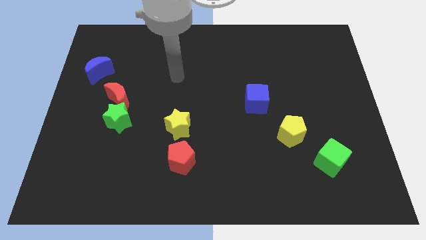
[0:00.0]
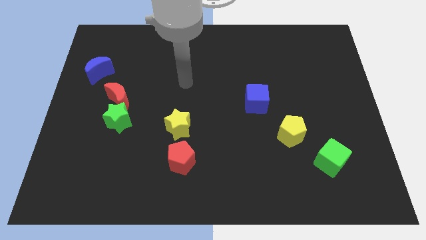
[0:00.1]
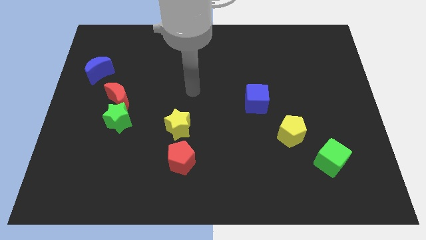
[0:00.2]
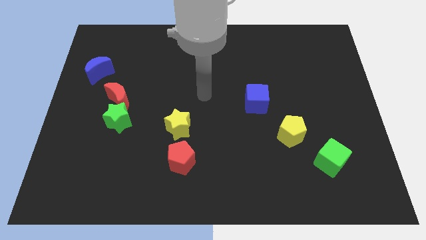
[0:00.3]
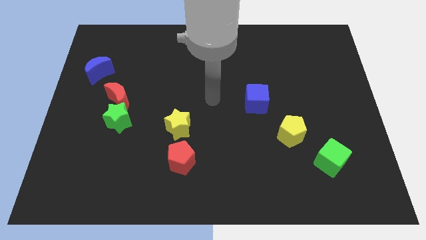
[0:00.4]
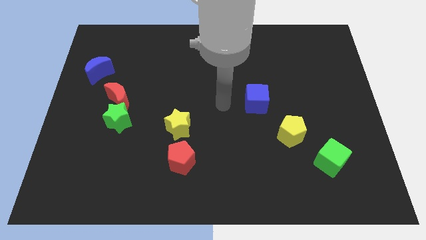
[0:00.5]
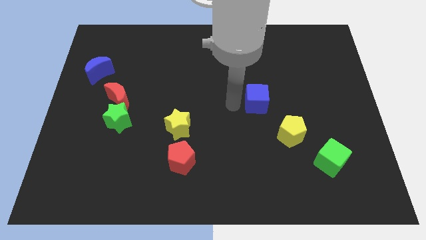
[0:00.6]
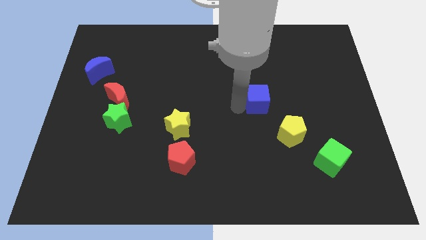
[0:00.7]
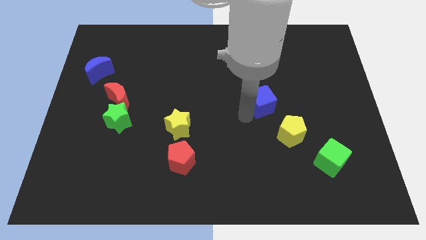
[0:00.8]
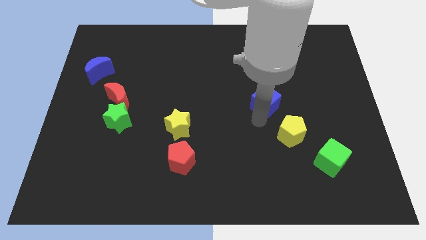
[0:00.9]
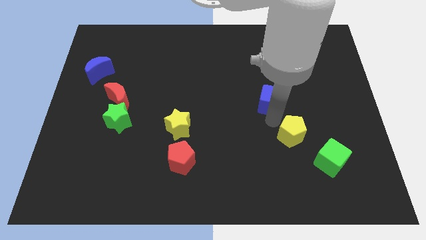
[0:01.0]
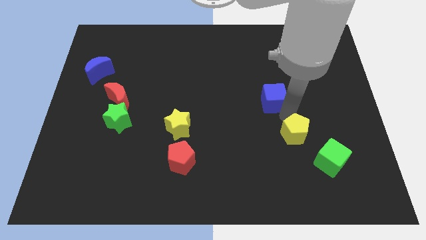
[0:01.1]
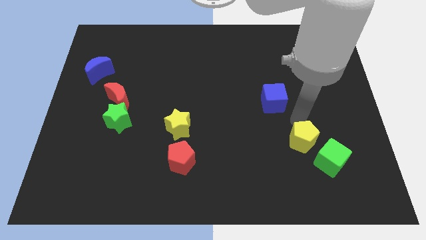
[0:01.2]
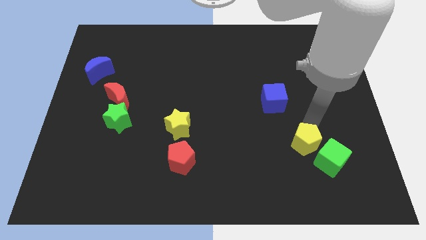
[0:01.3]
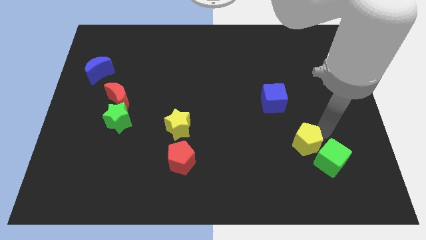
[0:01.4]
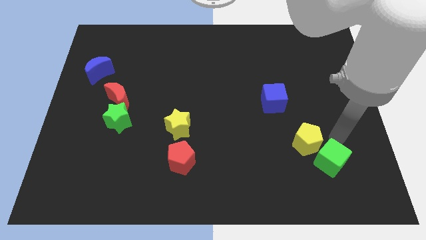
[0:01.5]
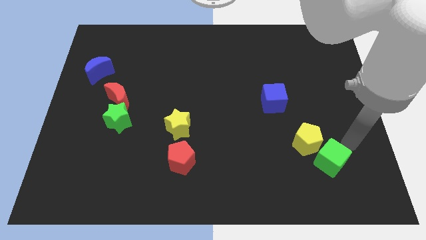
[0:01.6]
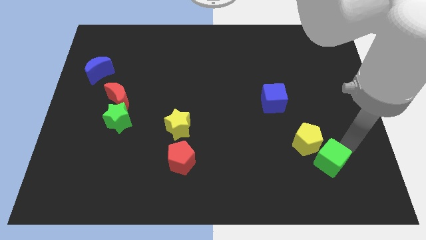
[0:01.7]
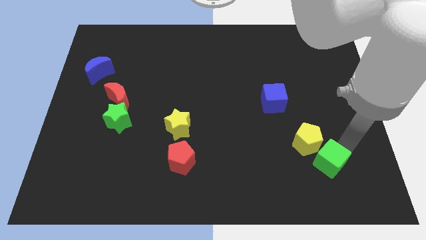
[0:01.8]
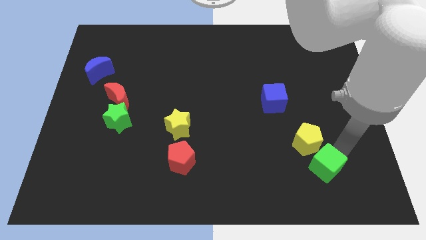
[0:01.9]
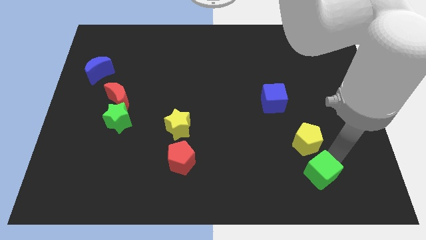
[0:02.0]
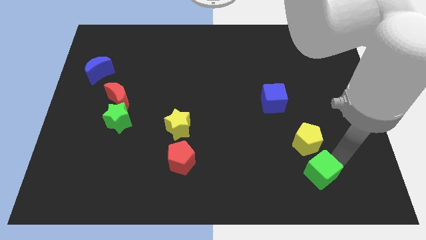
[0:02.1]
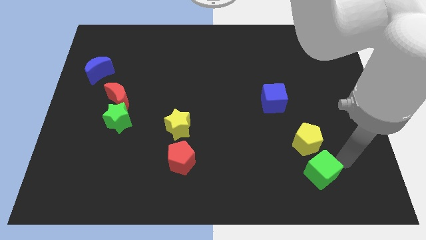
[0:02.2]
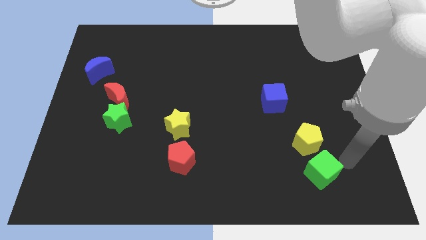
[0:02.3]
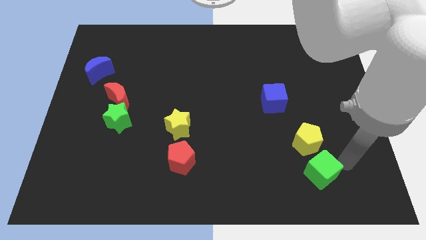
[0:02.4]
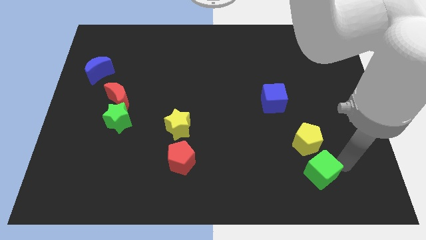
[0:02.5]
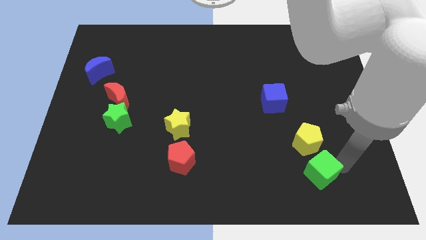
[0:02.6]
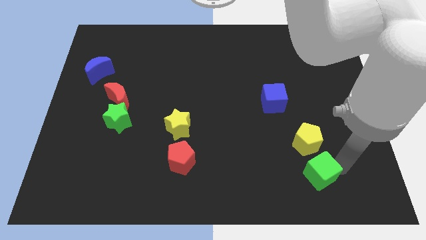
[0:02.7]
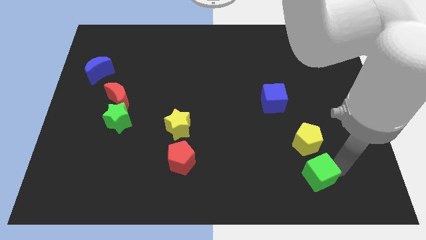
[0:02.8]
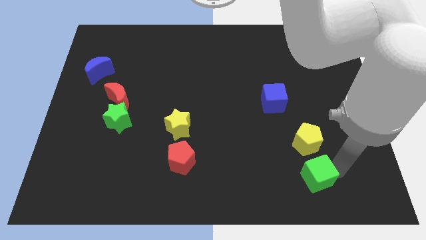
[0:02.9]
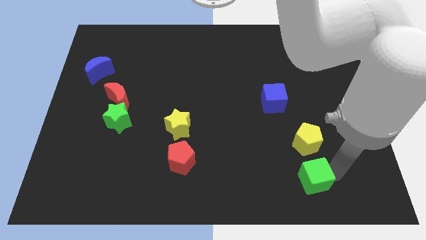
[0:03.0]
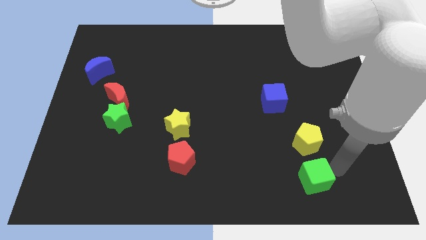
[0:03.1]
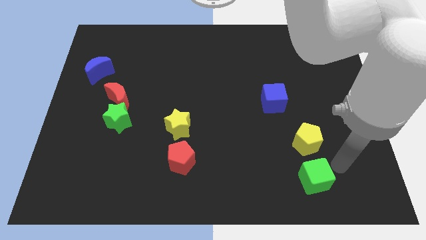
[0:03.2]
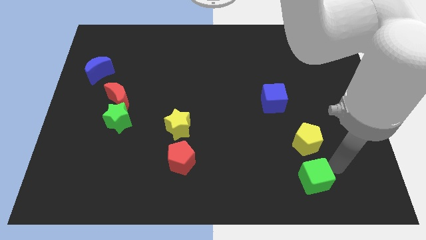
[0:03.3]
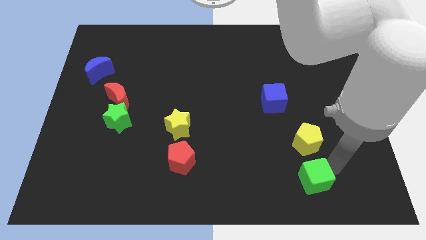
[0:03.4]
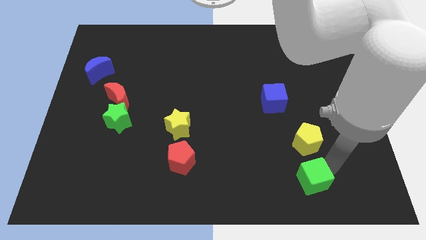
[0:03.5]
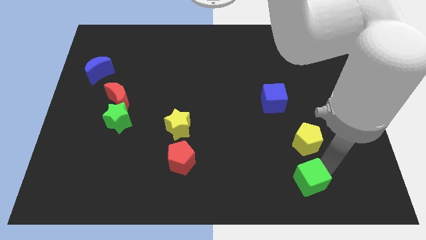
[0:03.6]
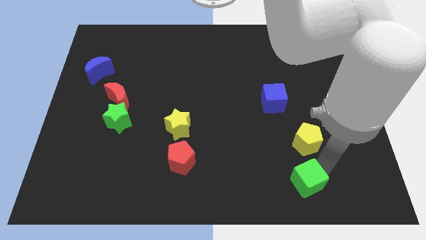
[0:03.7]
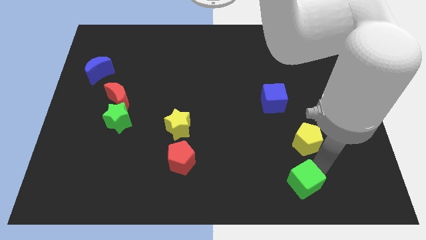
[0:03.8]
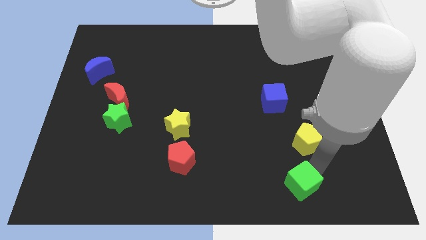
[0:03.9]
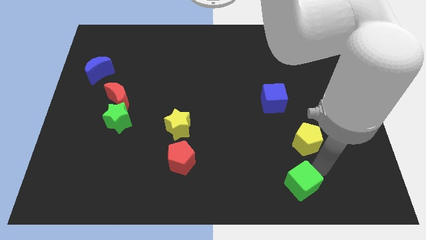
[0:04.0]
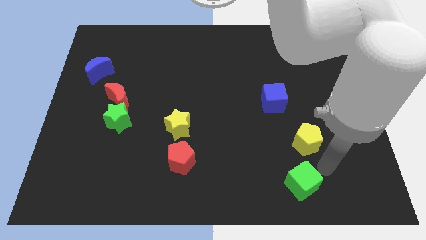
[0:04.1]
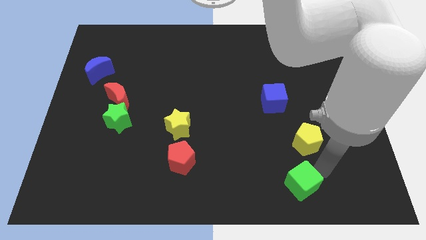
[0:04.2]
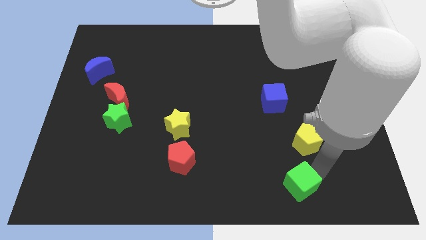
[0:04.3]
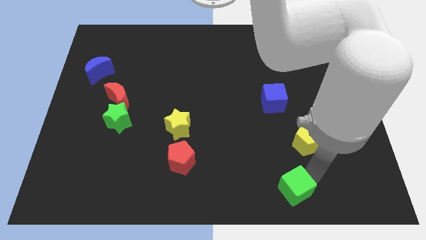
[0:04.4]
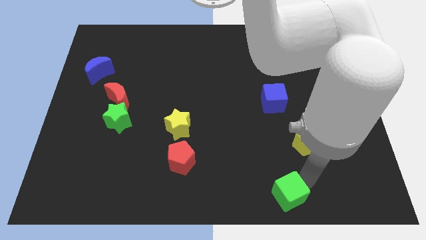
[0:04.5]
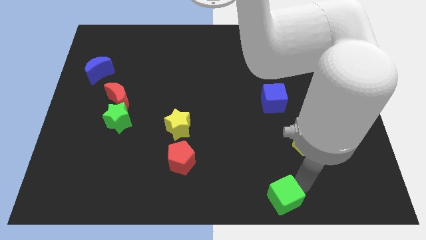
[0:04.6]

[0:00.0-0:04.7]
slide the green cube to the bottom side

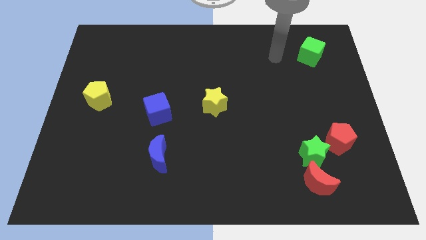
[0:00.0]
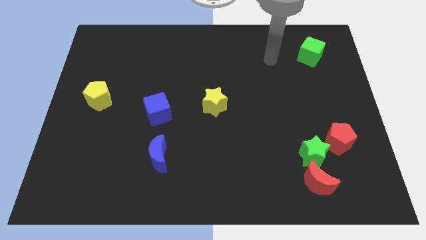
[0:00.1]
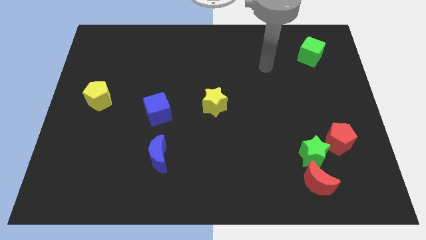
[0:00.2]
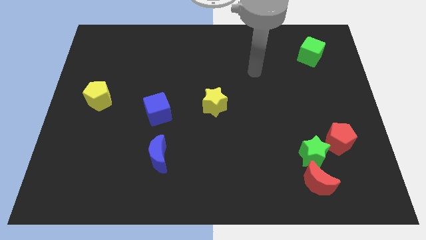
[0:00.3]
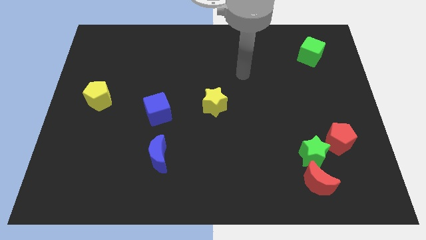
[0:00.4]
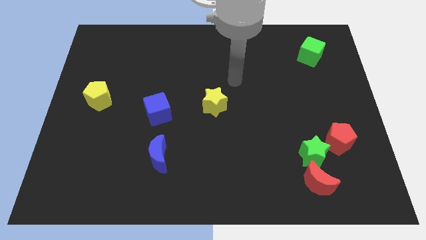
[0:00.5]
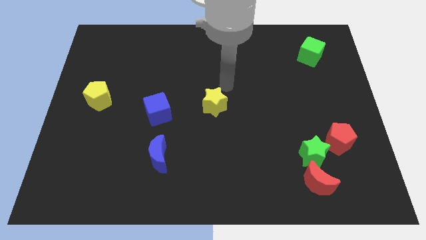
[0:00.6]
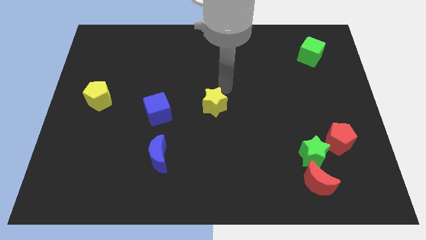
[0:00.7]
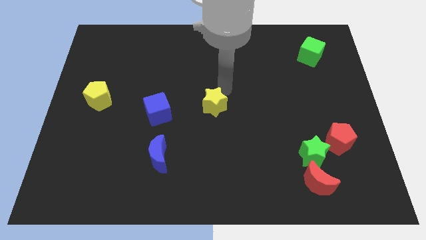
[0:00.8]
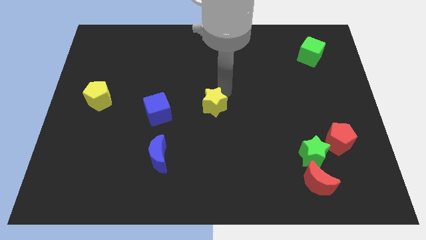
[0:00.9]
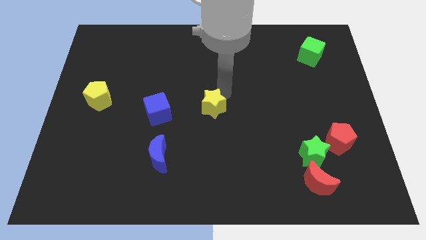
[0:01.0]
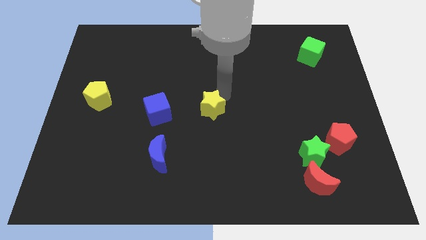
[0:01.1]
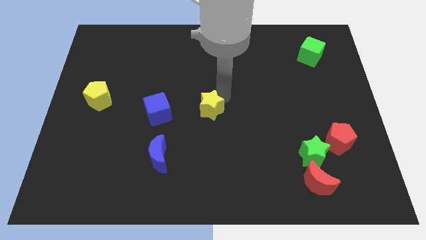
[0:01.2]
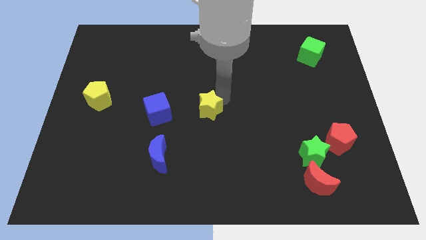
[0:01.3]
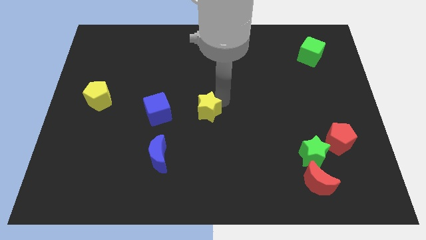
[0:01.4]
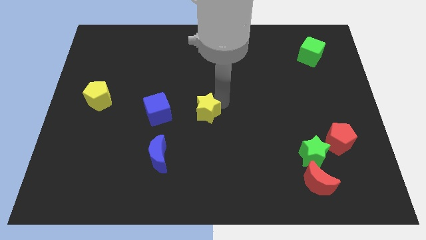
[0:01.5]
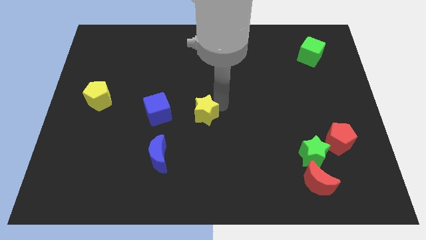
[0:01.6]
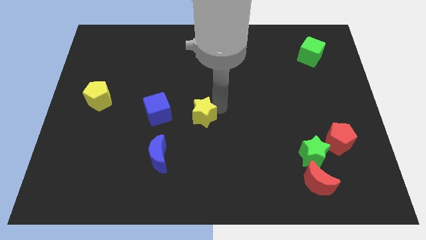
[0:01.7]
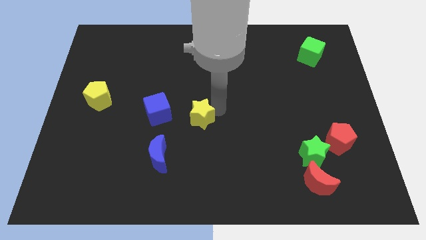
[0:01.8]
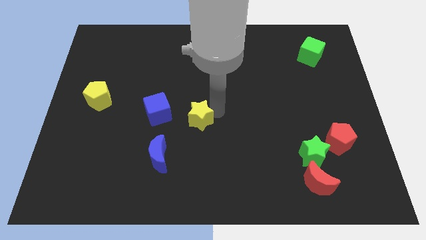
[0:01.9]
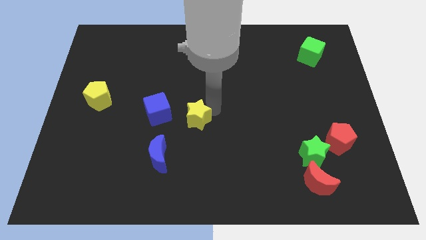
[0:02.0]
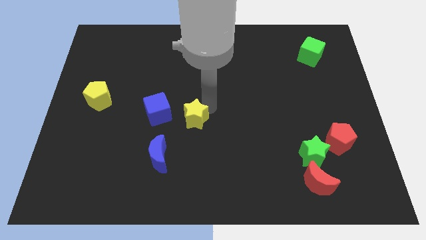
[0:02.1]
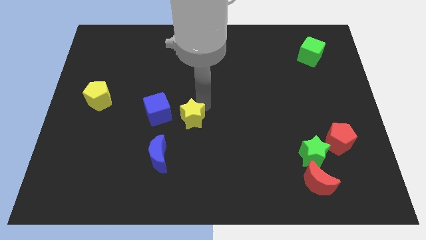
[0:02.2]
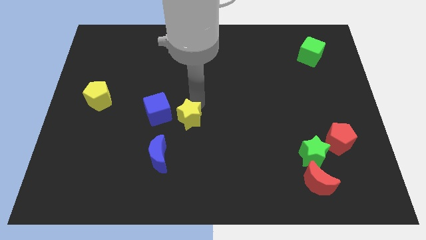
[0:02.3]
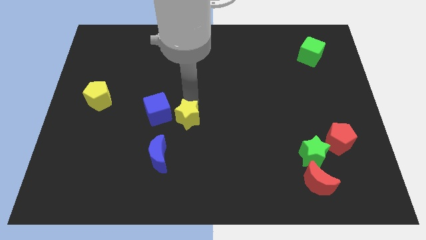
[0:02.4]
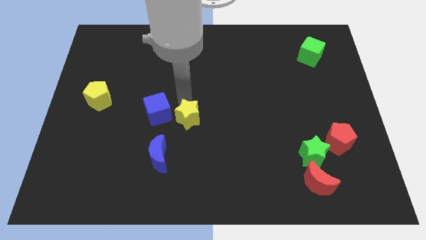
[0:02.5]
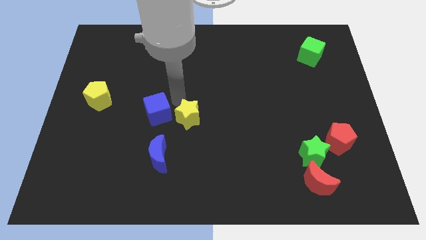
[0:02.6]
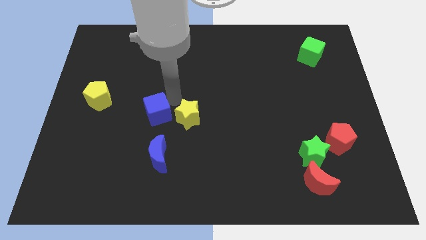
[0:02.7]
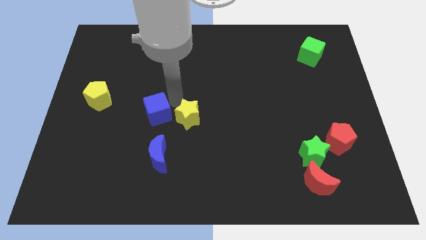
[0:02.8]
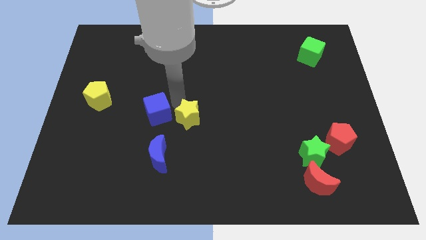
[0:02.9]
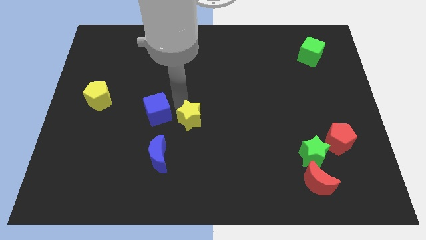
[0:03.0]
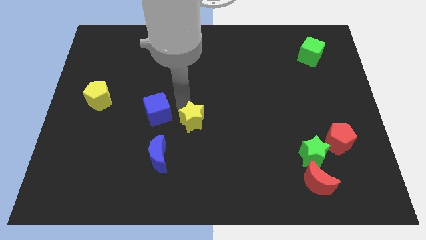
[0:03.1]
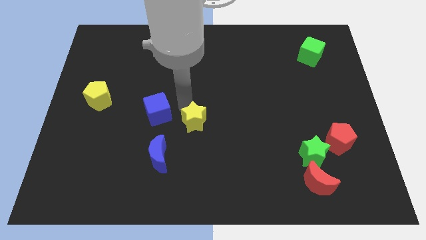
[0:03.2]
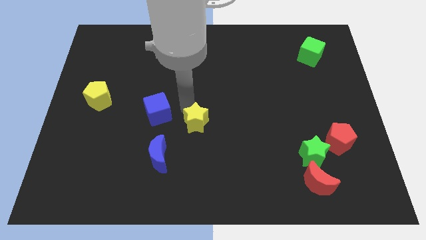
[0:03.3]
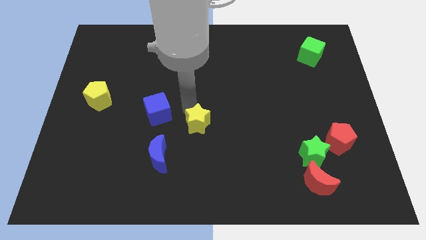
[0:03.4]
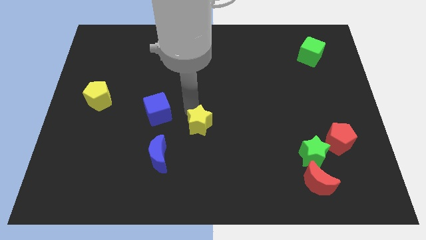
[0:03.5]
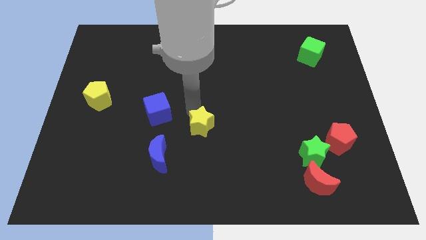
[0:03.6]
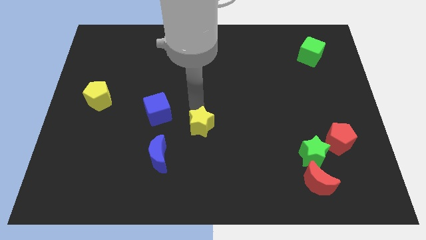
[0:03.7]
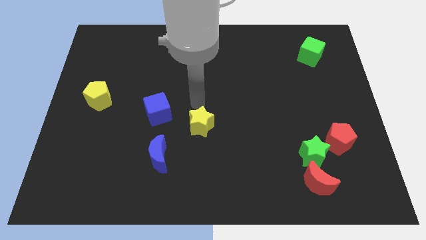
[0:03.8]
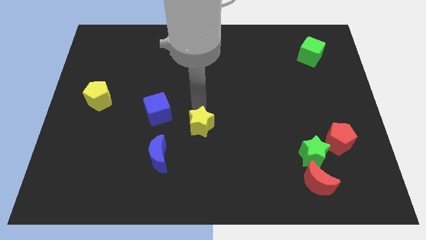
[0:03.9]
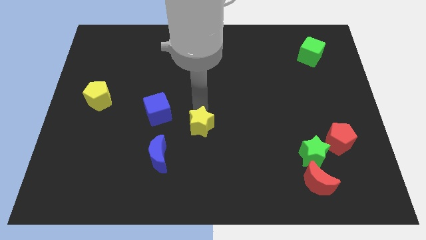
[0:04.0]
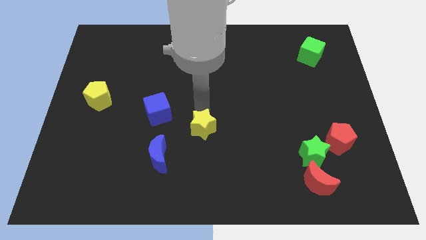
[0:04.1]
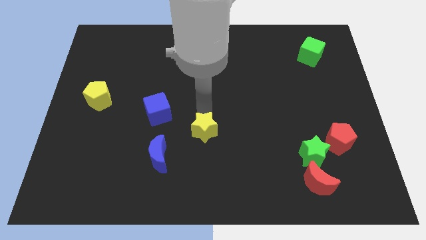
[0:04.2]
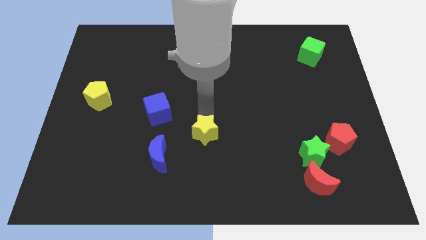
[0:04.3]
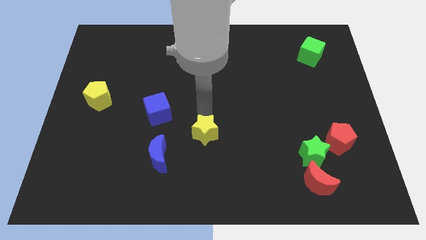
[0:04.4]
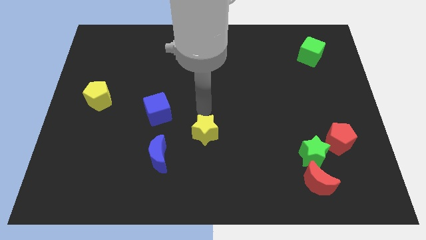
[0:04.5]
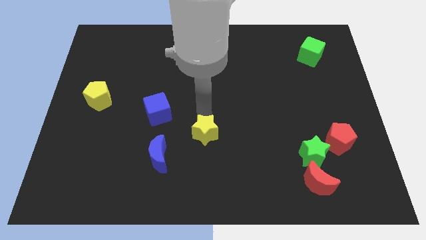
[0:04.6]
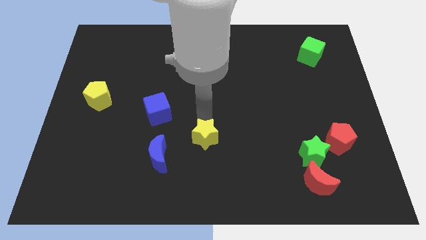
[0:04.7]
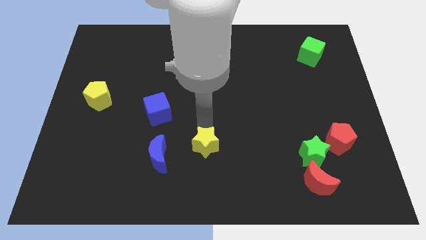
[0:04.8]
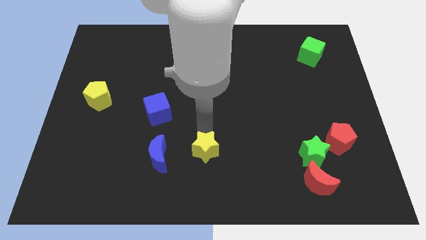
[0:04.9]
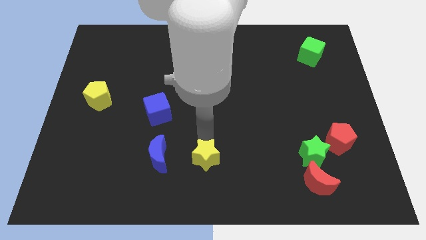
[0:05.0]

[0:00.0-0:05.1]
slide the yellow star to the bottom side
